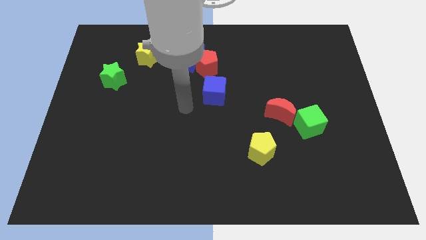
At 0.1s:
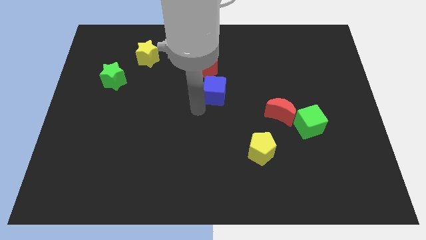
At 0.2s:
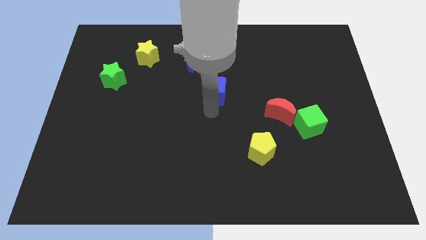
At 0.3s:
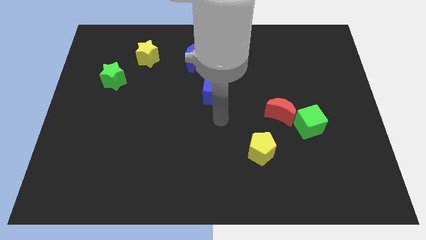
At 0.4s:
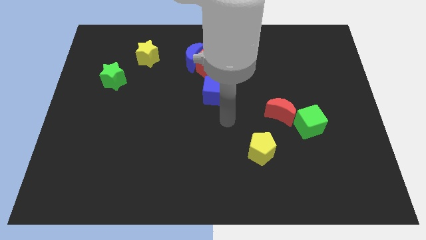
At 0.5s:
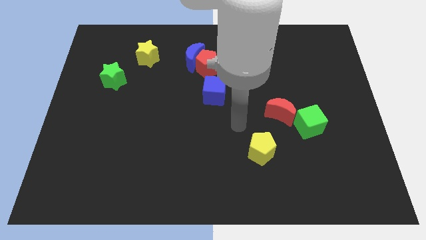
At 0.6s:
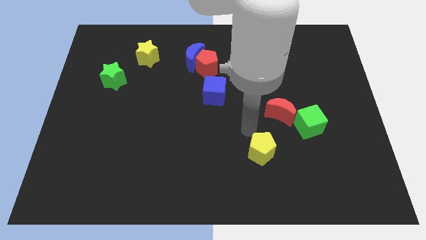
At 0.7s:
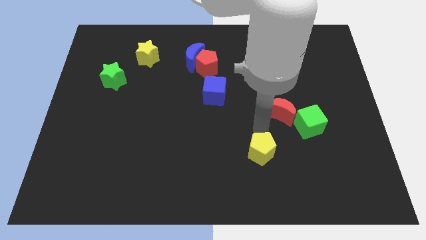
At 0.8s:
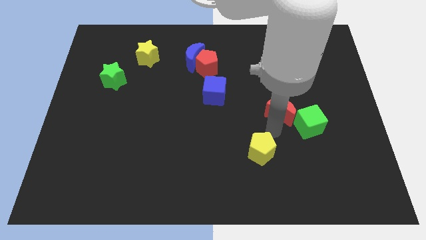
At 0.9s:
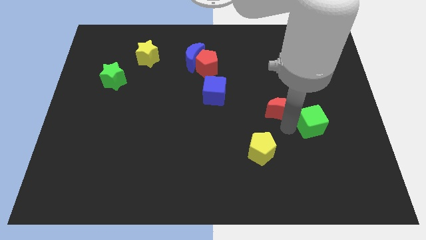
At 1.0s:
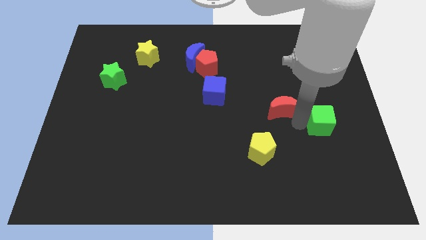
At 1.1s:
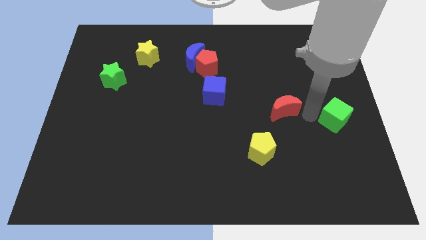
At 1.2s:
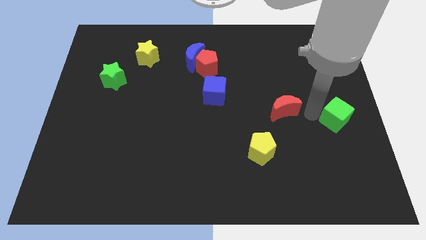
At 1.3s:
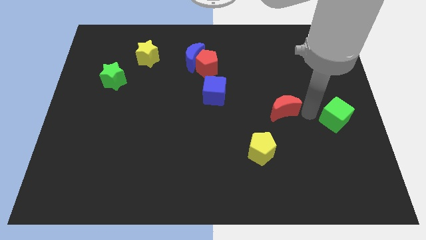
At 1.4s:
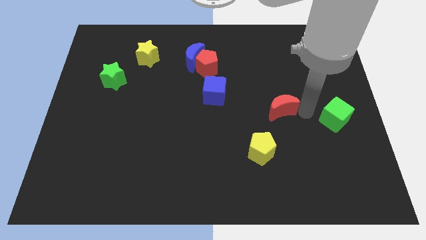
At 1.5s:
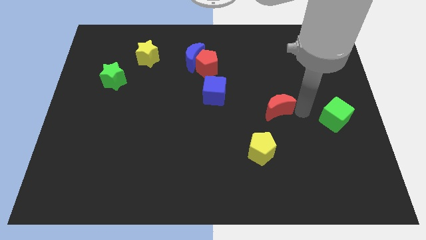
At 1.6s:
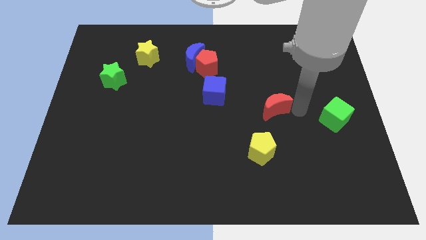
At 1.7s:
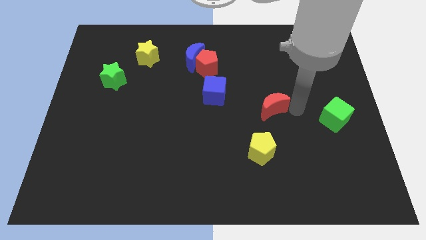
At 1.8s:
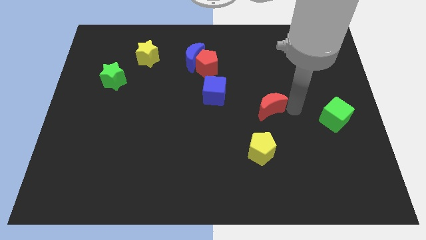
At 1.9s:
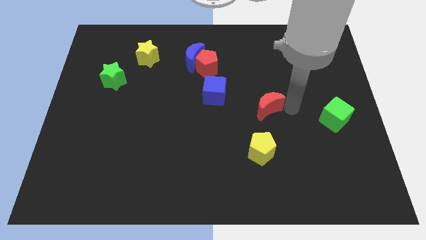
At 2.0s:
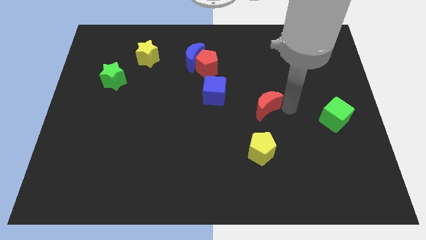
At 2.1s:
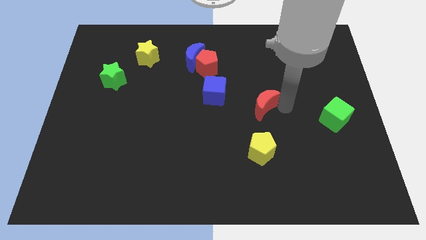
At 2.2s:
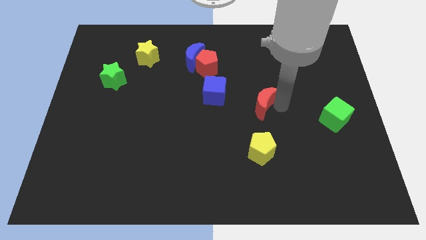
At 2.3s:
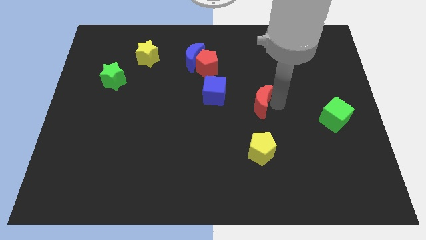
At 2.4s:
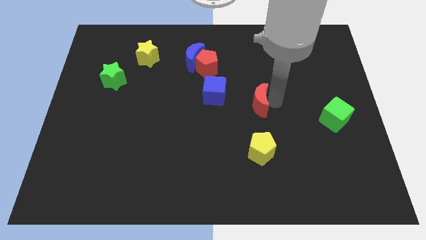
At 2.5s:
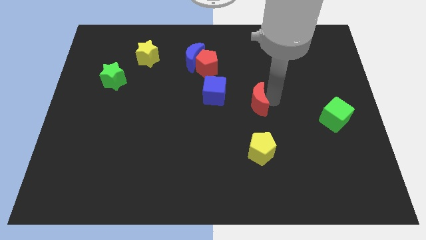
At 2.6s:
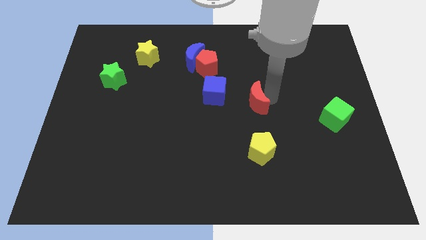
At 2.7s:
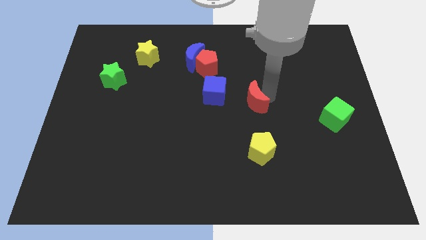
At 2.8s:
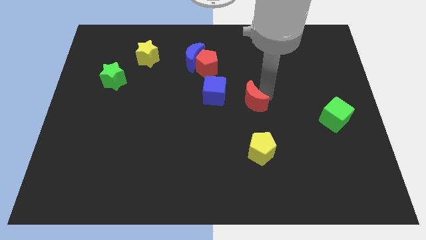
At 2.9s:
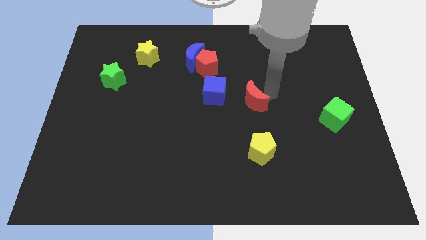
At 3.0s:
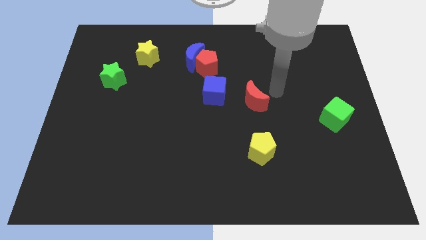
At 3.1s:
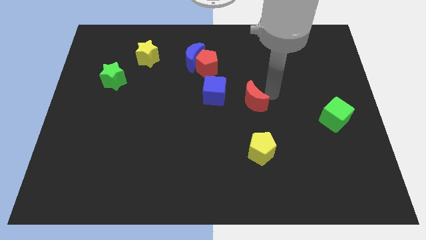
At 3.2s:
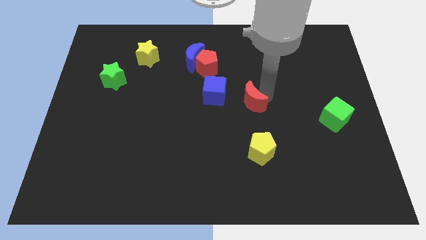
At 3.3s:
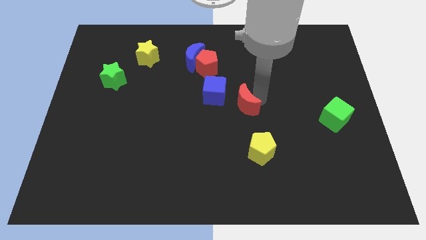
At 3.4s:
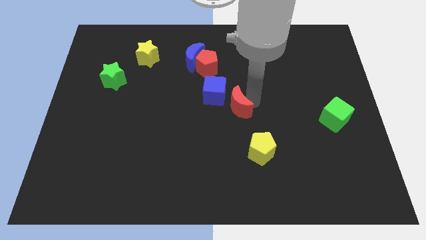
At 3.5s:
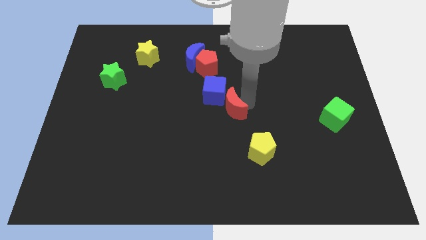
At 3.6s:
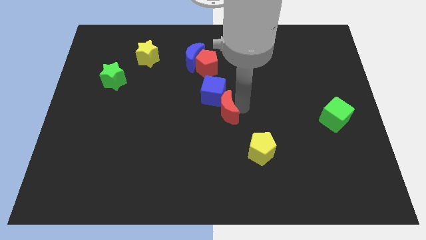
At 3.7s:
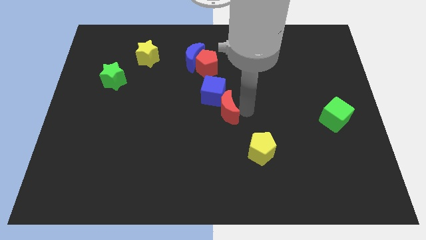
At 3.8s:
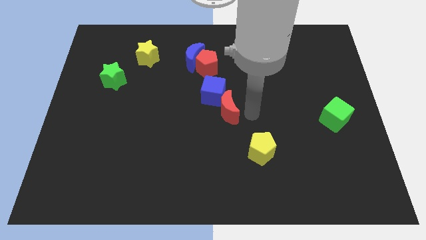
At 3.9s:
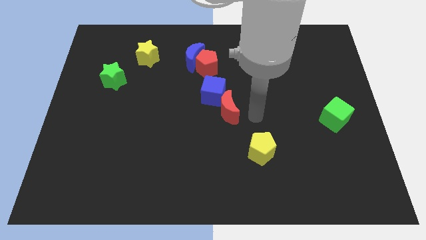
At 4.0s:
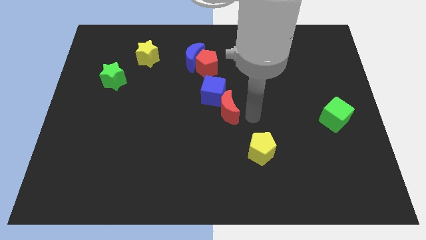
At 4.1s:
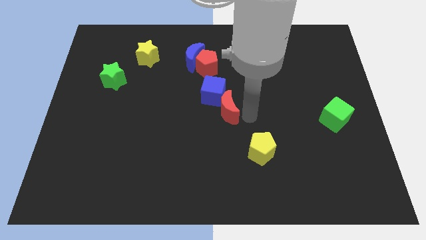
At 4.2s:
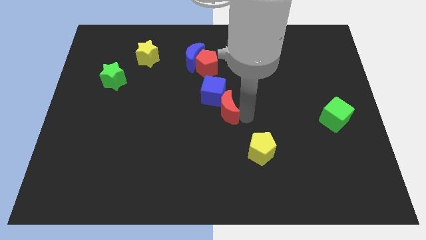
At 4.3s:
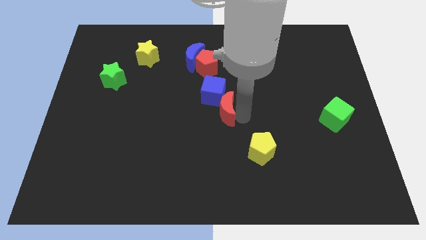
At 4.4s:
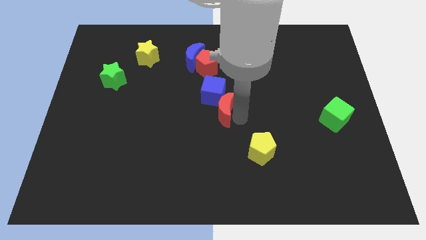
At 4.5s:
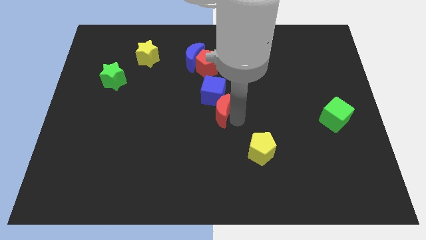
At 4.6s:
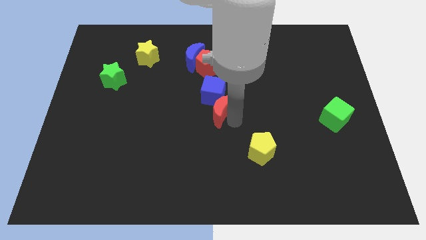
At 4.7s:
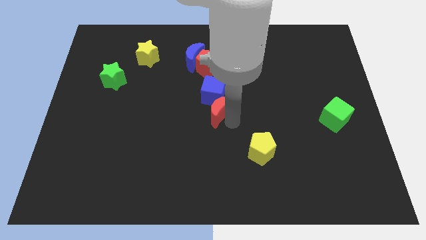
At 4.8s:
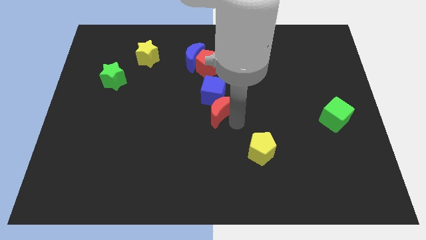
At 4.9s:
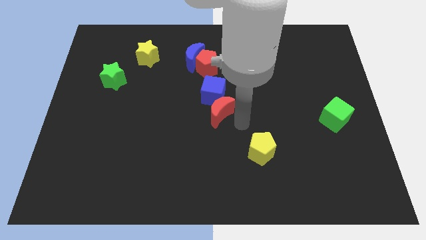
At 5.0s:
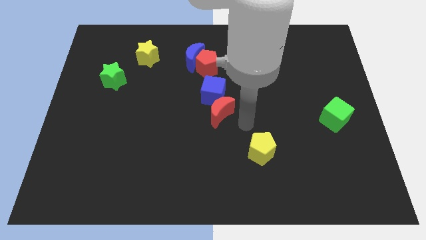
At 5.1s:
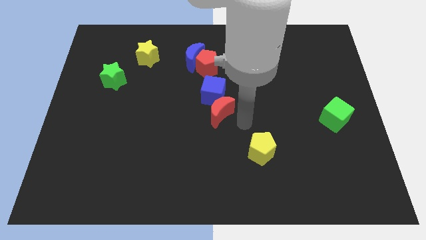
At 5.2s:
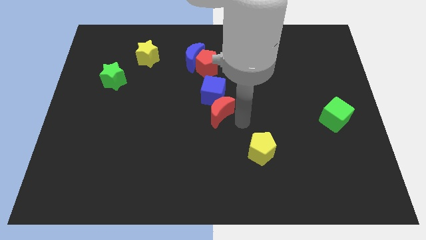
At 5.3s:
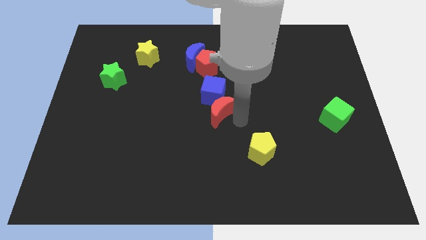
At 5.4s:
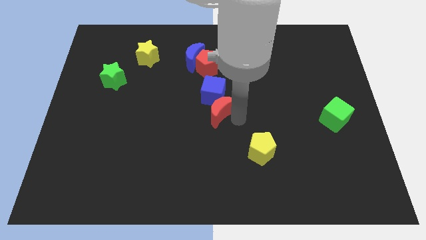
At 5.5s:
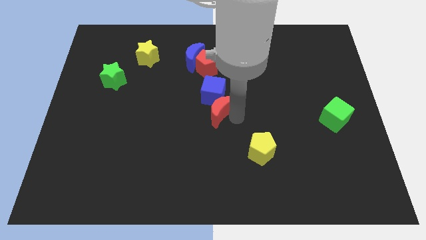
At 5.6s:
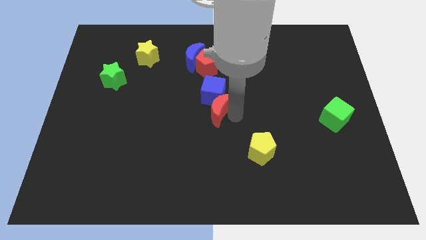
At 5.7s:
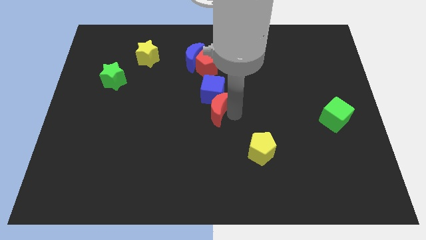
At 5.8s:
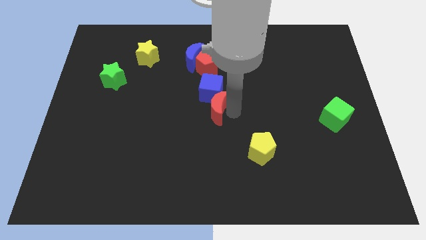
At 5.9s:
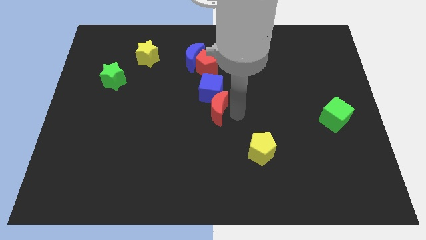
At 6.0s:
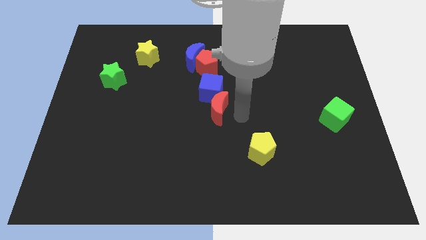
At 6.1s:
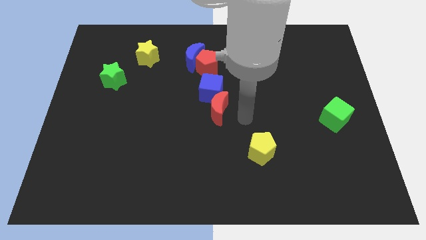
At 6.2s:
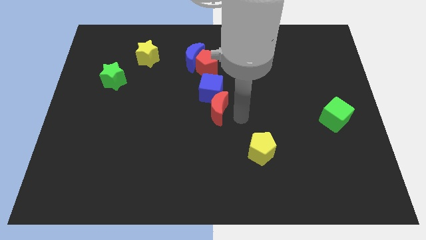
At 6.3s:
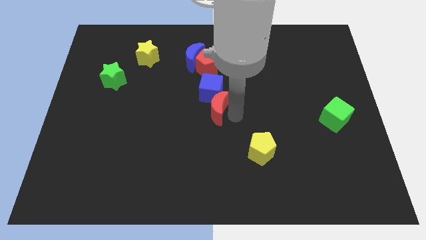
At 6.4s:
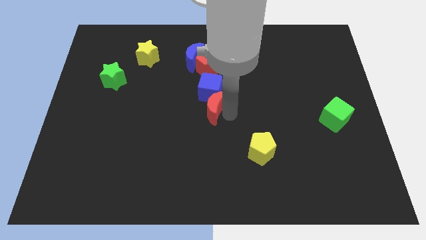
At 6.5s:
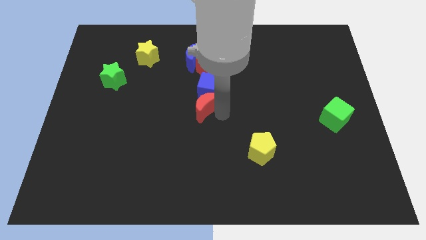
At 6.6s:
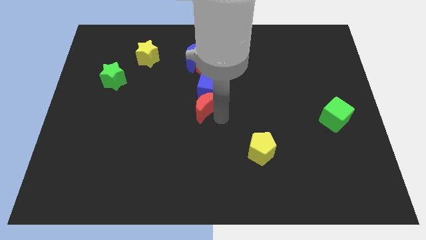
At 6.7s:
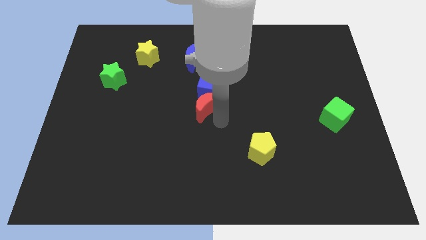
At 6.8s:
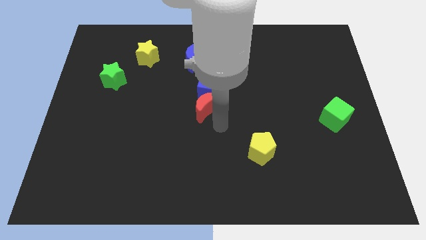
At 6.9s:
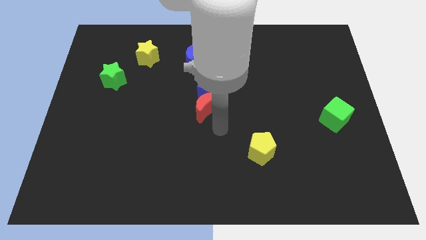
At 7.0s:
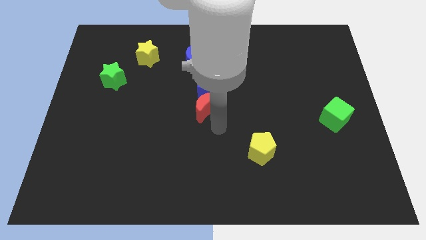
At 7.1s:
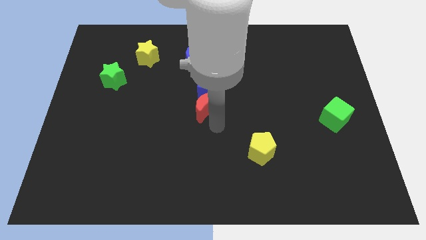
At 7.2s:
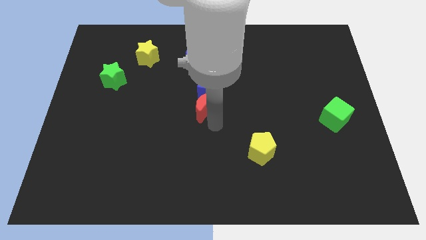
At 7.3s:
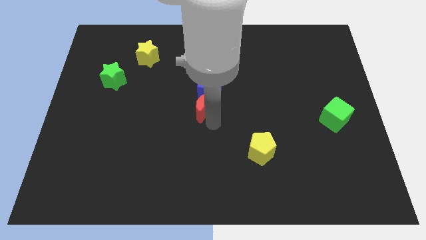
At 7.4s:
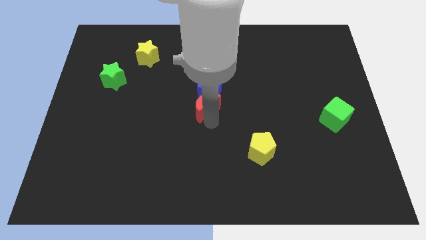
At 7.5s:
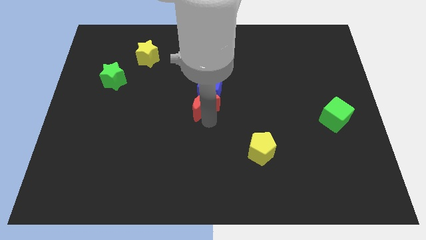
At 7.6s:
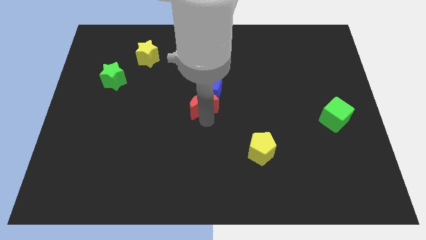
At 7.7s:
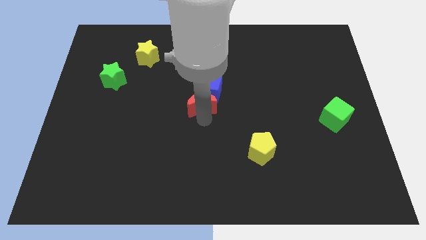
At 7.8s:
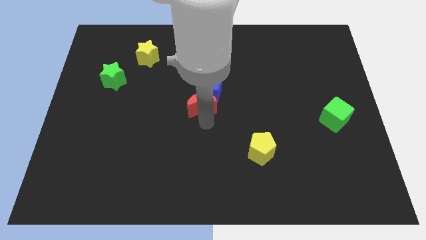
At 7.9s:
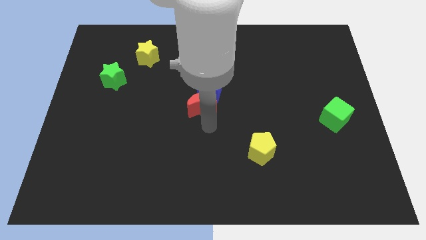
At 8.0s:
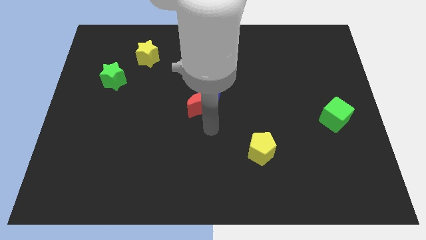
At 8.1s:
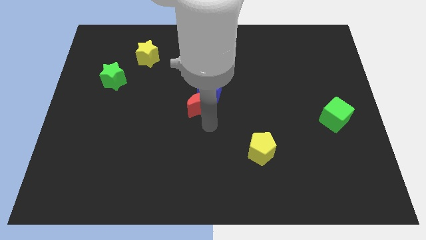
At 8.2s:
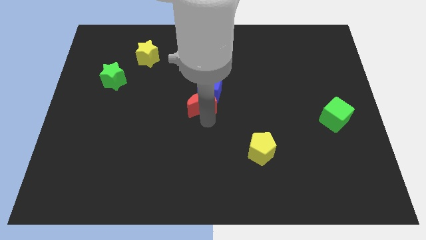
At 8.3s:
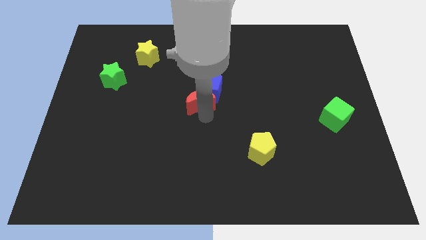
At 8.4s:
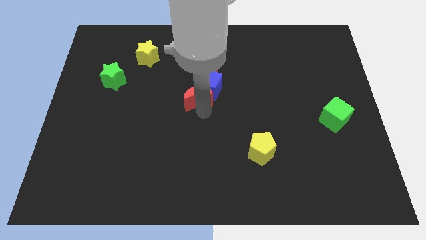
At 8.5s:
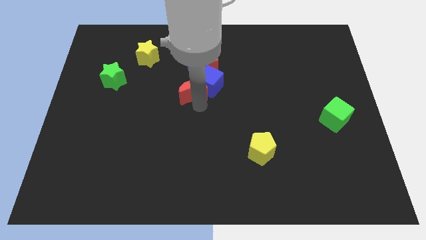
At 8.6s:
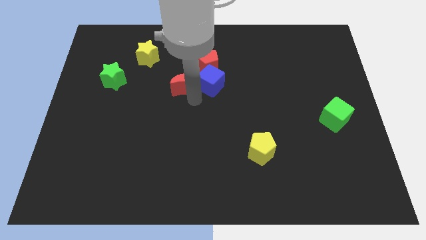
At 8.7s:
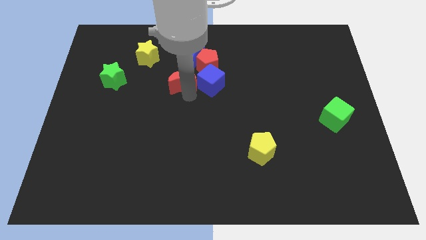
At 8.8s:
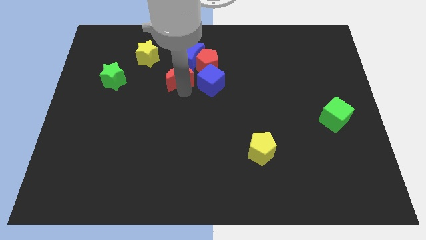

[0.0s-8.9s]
move the red moon diagonally up and to the left of the blue cube
